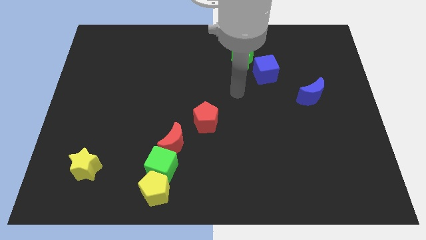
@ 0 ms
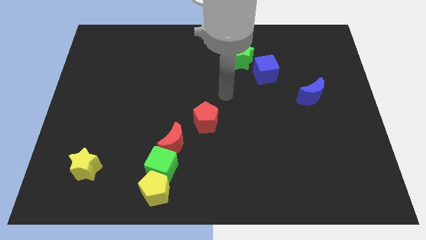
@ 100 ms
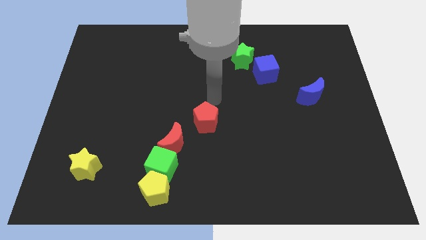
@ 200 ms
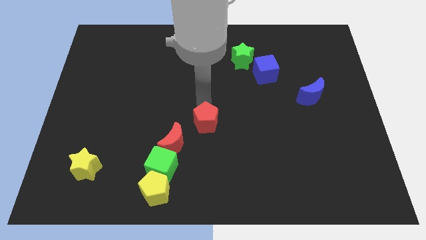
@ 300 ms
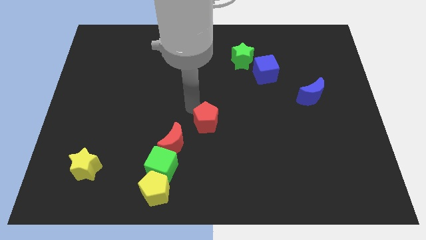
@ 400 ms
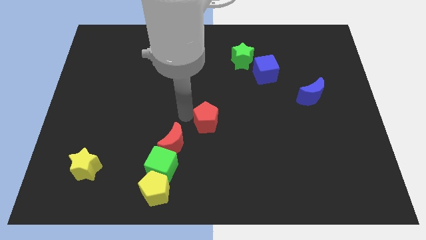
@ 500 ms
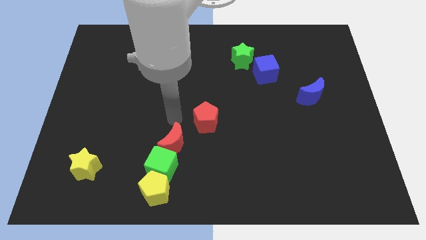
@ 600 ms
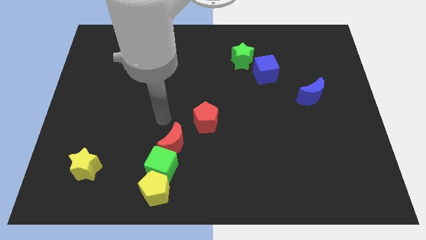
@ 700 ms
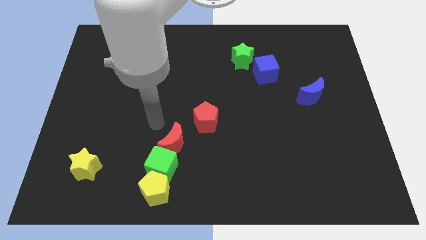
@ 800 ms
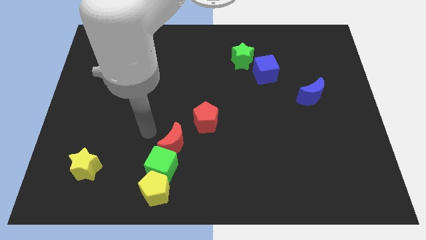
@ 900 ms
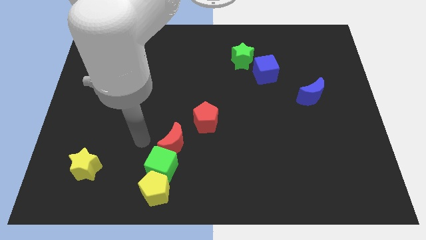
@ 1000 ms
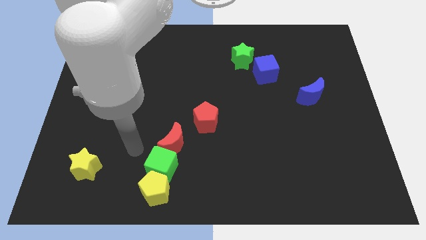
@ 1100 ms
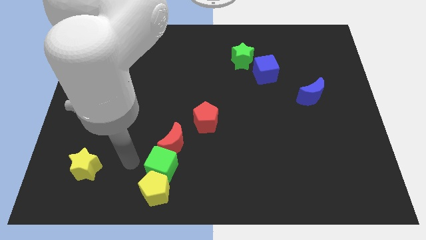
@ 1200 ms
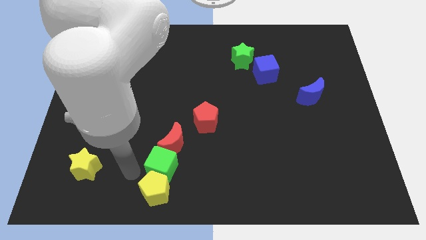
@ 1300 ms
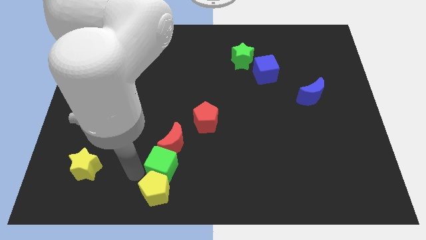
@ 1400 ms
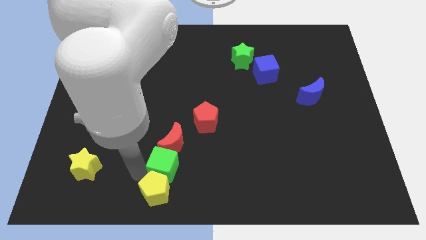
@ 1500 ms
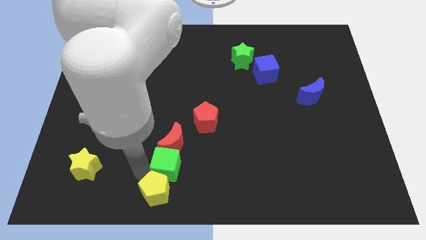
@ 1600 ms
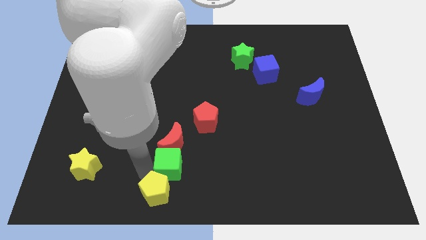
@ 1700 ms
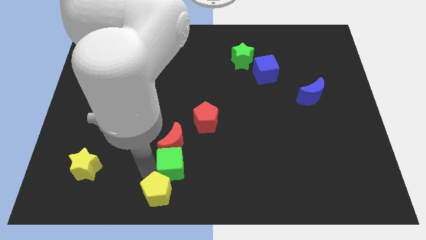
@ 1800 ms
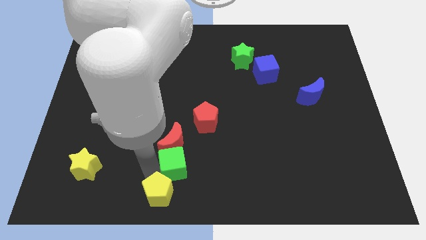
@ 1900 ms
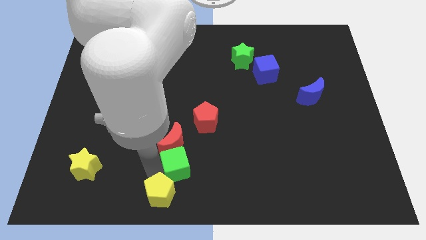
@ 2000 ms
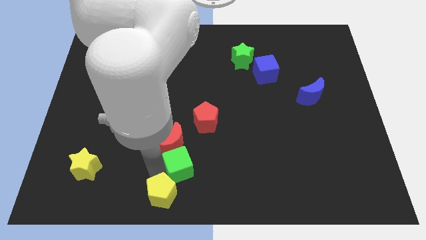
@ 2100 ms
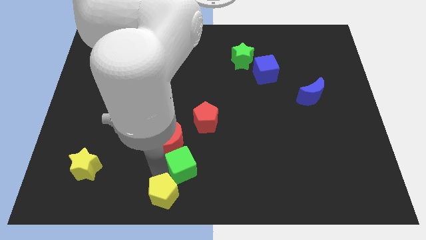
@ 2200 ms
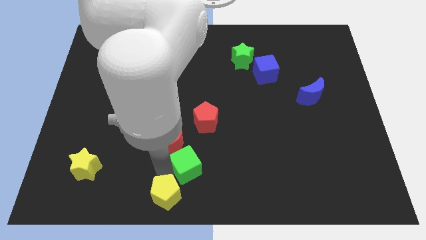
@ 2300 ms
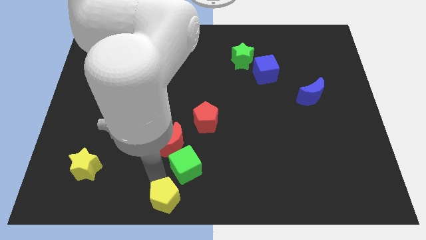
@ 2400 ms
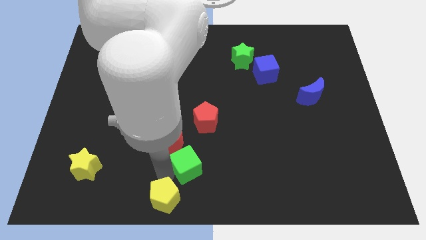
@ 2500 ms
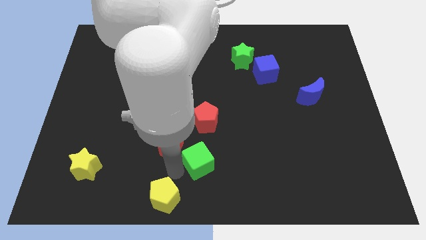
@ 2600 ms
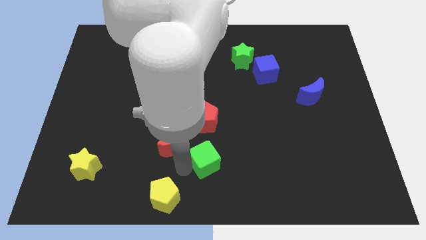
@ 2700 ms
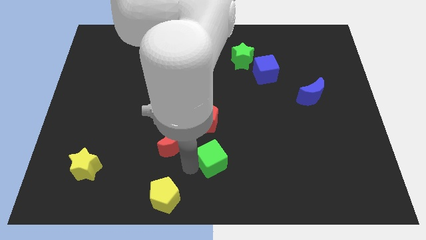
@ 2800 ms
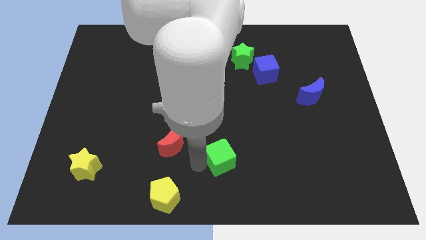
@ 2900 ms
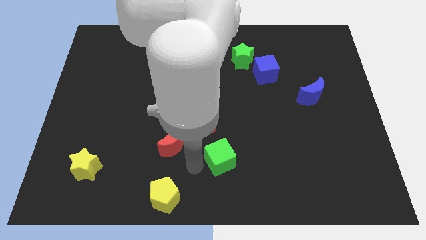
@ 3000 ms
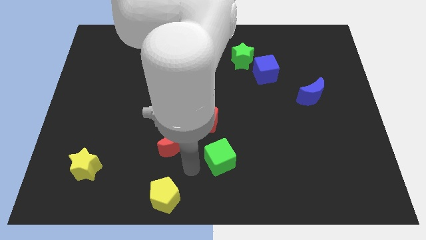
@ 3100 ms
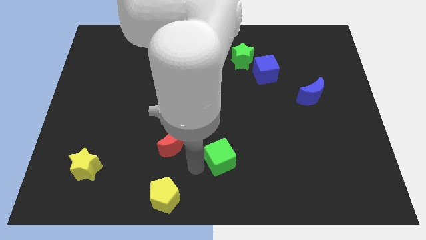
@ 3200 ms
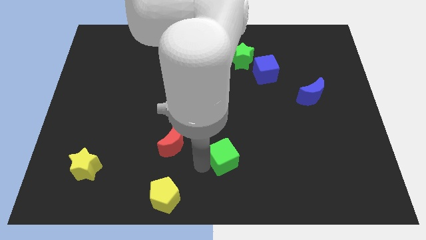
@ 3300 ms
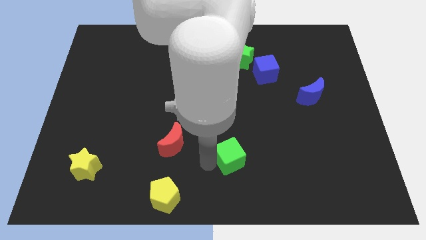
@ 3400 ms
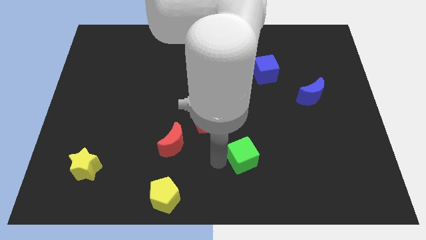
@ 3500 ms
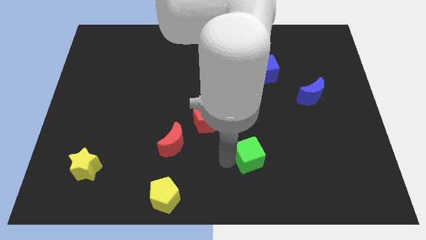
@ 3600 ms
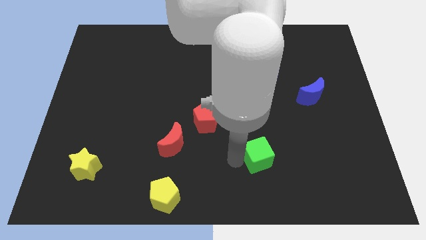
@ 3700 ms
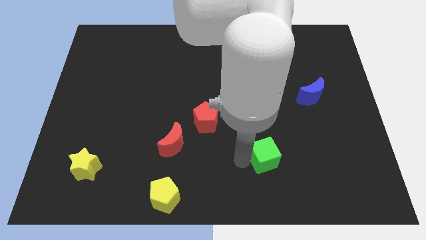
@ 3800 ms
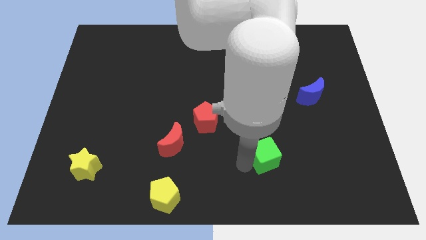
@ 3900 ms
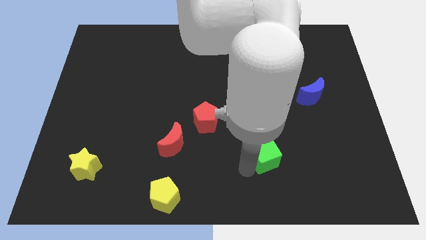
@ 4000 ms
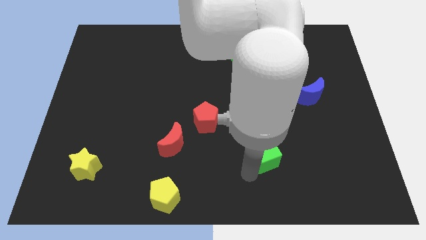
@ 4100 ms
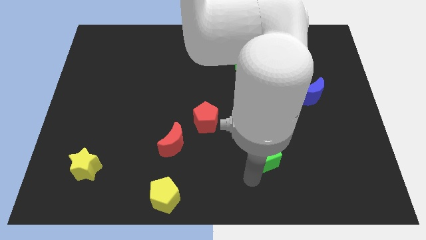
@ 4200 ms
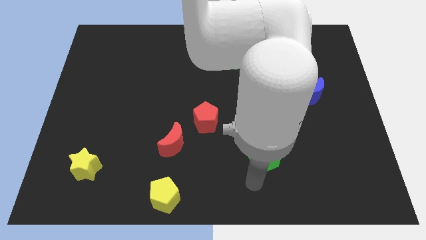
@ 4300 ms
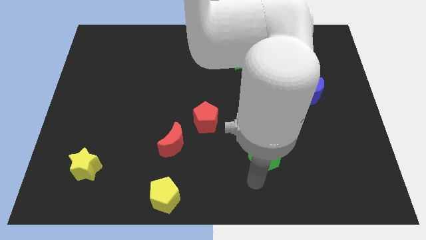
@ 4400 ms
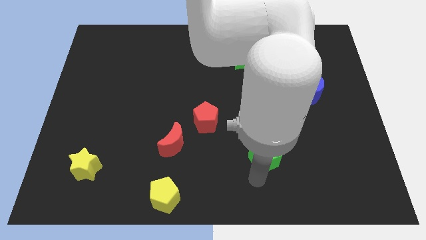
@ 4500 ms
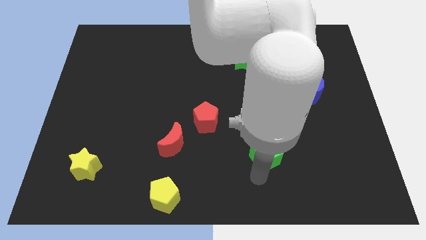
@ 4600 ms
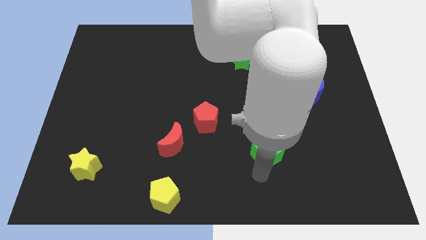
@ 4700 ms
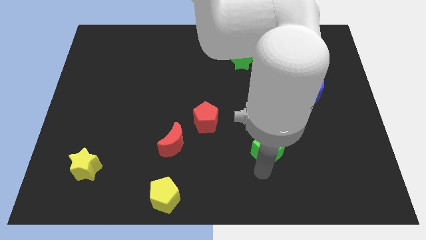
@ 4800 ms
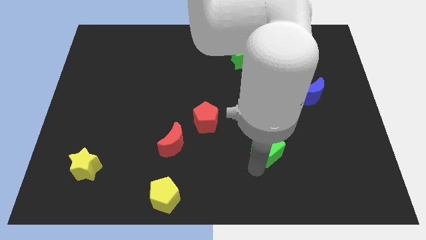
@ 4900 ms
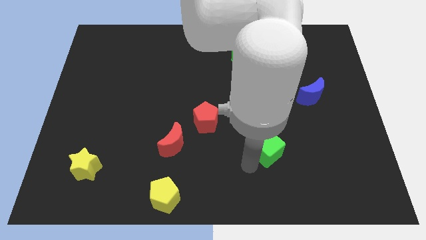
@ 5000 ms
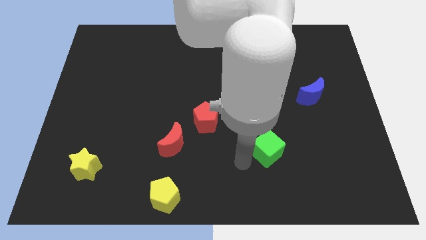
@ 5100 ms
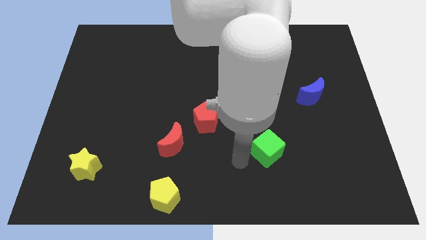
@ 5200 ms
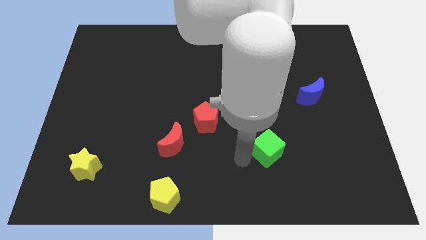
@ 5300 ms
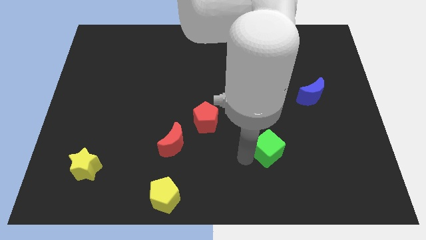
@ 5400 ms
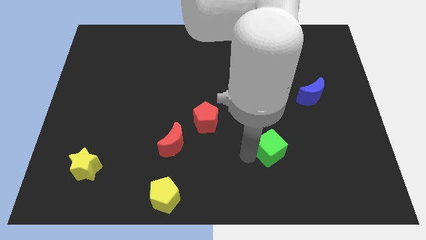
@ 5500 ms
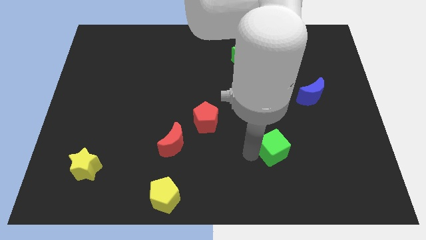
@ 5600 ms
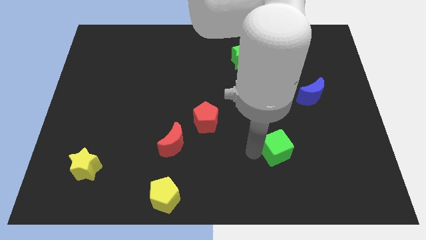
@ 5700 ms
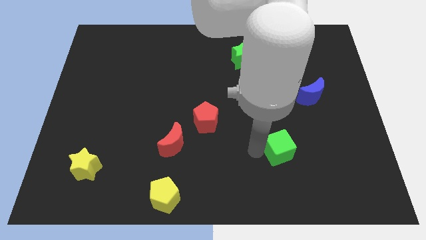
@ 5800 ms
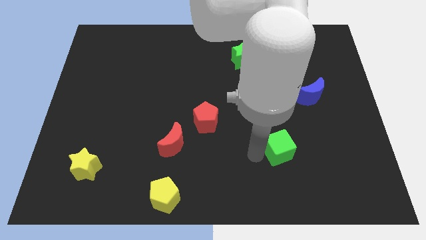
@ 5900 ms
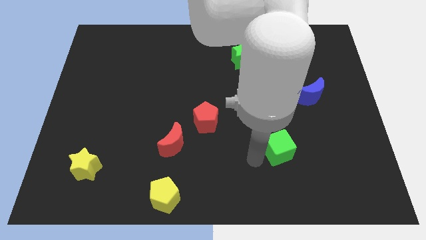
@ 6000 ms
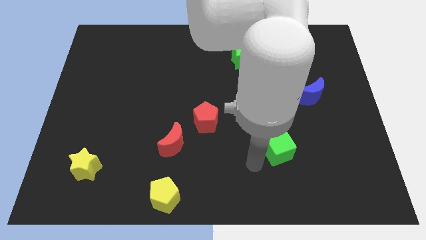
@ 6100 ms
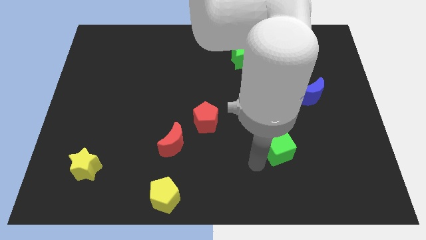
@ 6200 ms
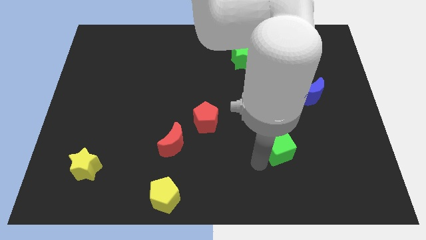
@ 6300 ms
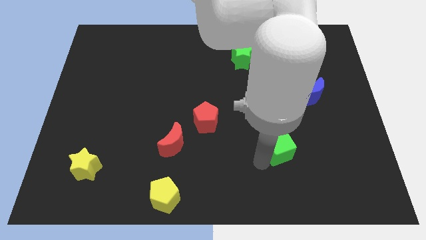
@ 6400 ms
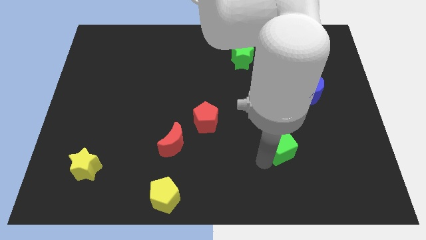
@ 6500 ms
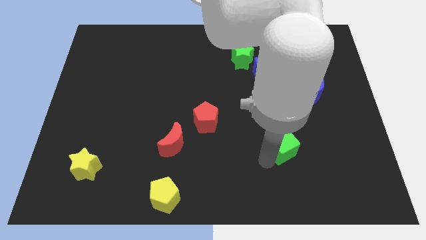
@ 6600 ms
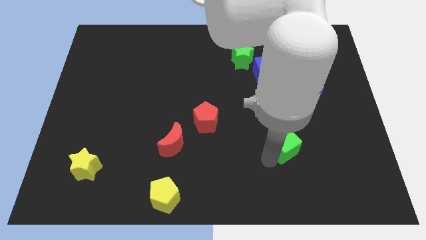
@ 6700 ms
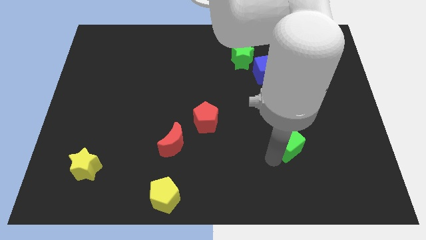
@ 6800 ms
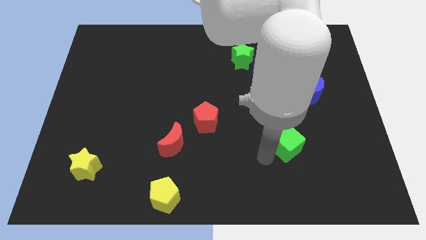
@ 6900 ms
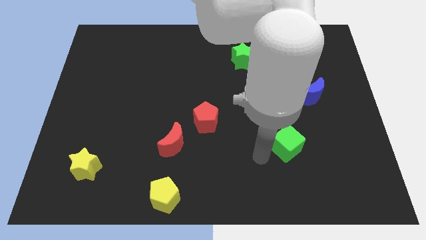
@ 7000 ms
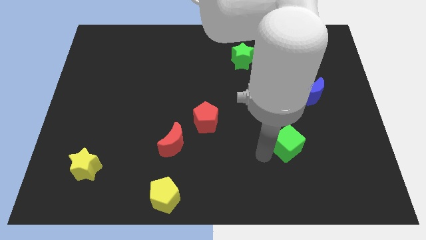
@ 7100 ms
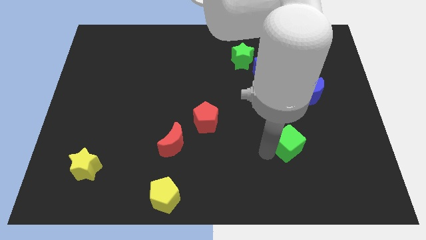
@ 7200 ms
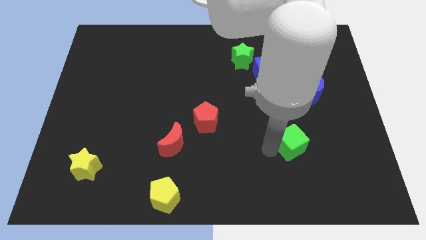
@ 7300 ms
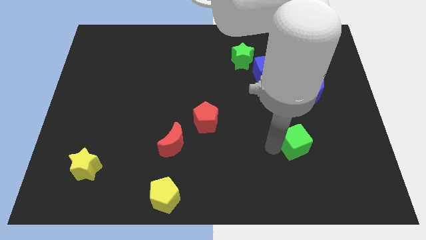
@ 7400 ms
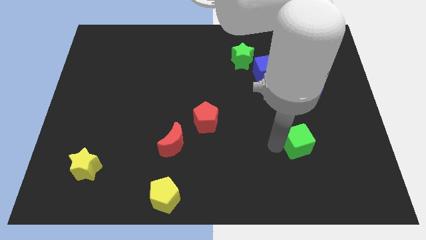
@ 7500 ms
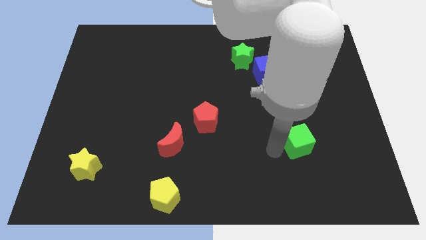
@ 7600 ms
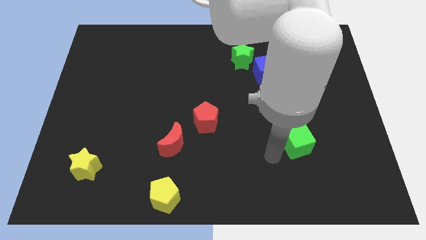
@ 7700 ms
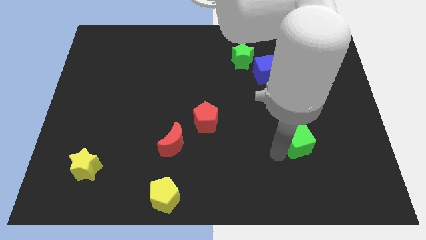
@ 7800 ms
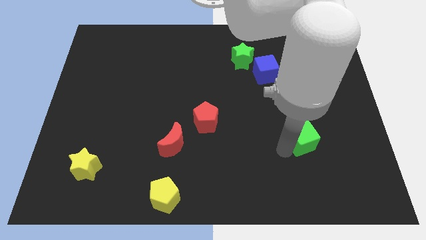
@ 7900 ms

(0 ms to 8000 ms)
push the green cube below the blue moon

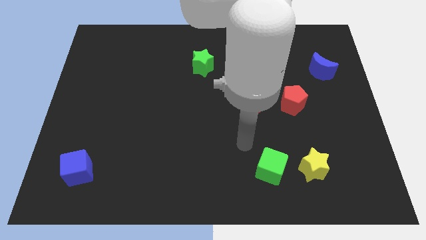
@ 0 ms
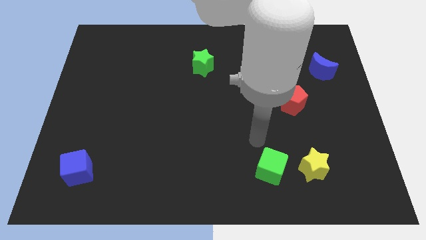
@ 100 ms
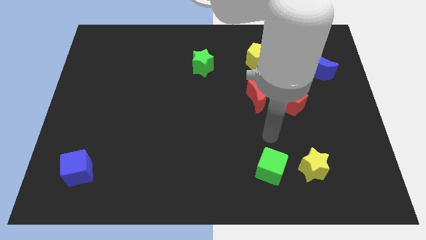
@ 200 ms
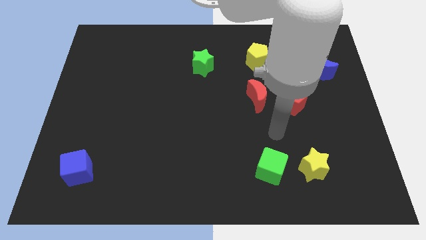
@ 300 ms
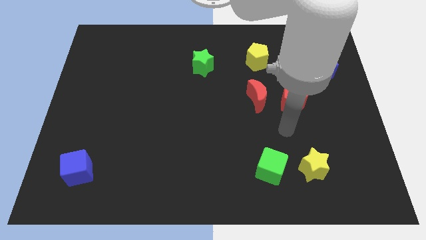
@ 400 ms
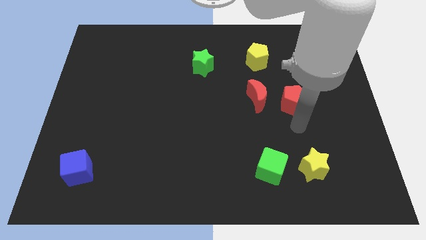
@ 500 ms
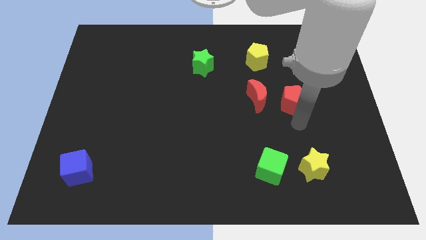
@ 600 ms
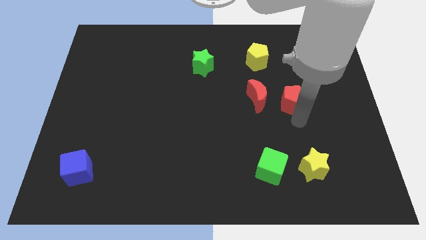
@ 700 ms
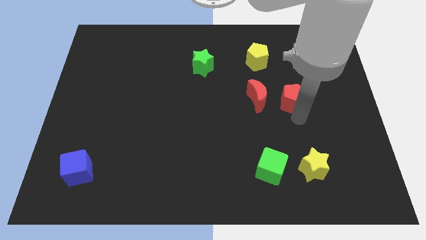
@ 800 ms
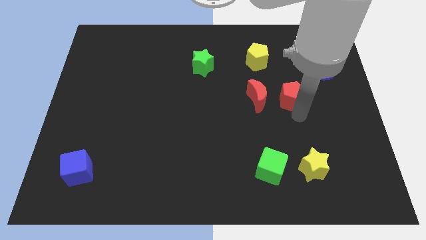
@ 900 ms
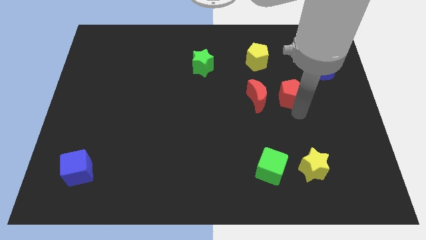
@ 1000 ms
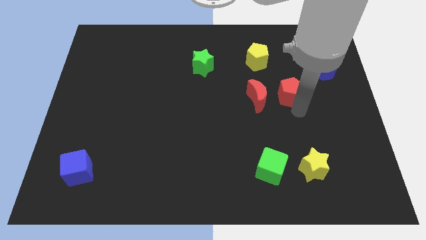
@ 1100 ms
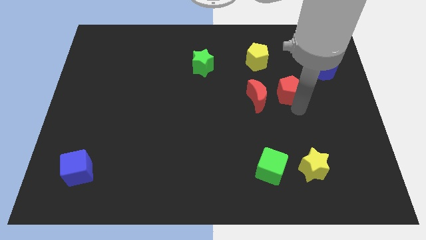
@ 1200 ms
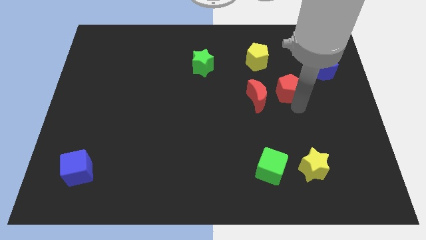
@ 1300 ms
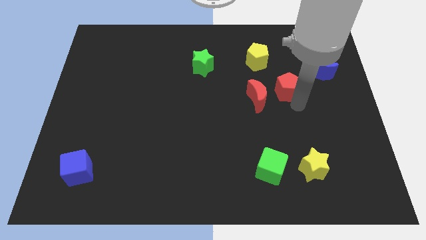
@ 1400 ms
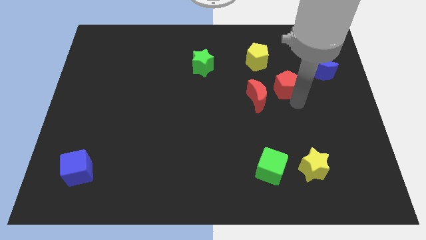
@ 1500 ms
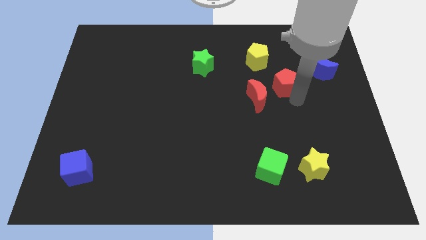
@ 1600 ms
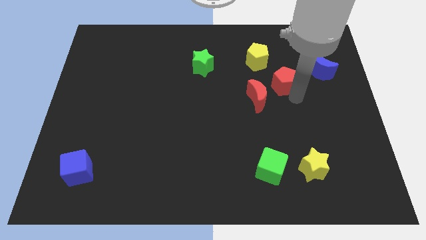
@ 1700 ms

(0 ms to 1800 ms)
slide the red pentagon to the left side of the blue moon
